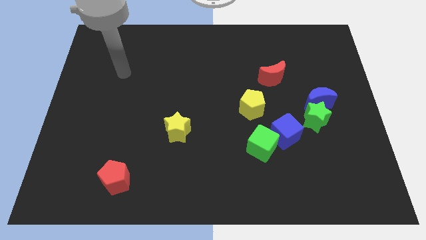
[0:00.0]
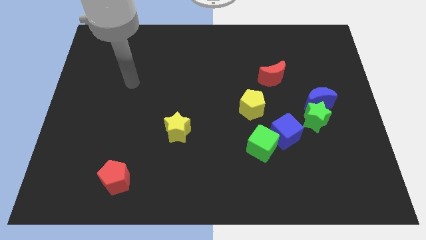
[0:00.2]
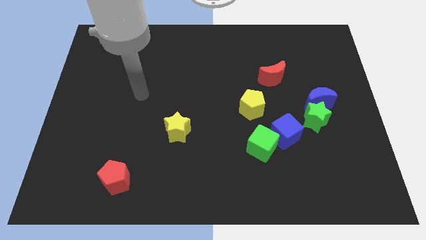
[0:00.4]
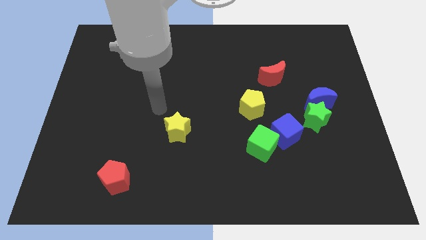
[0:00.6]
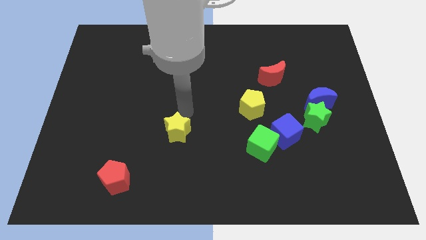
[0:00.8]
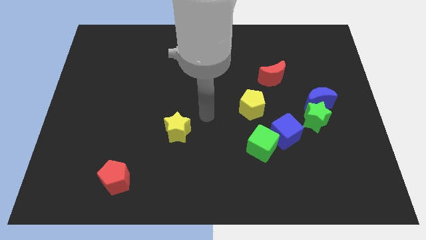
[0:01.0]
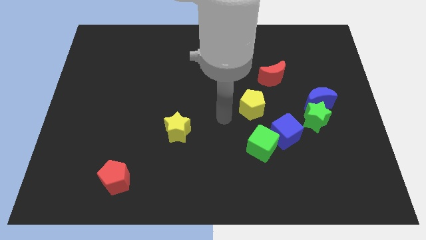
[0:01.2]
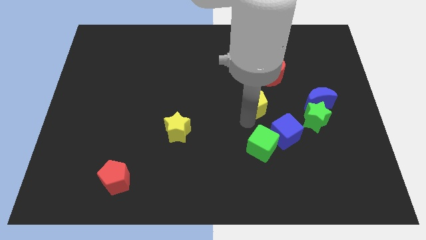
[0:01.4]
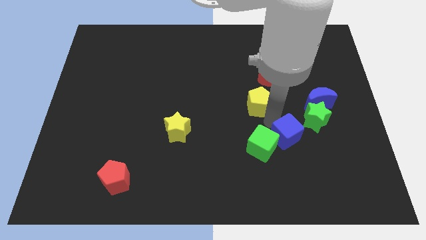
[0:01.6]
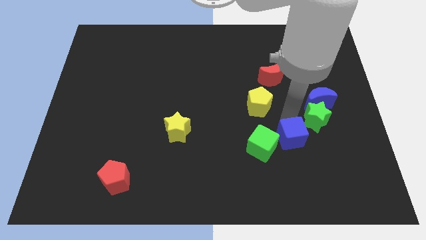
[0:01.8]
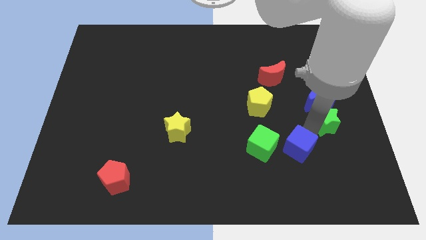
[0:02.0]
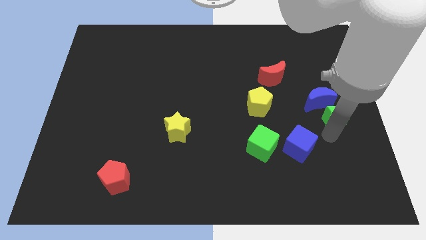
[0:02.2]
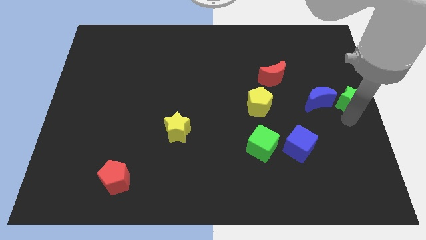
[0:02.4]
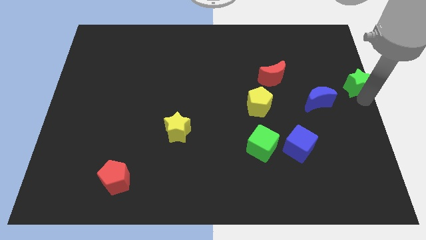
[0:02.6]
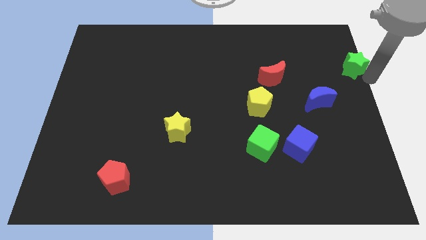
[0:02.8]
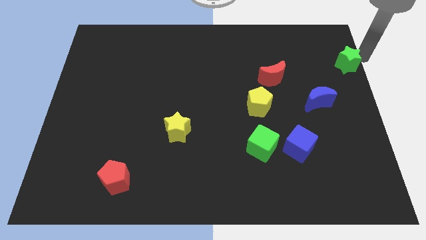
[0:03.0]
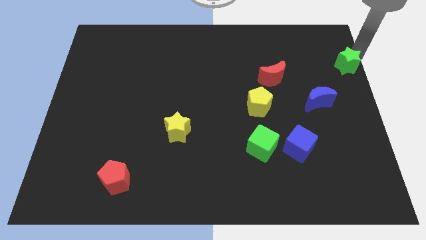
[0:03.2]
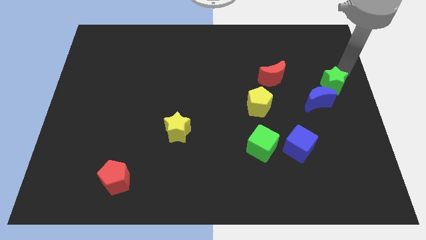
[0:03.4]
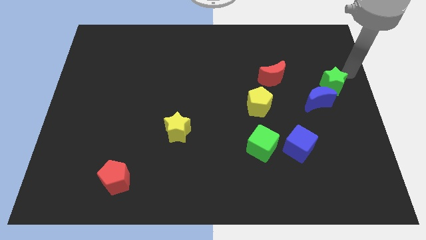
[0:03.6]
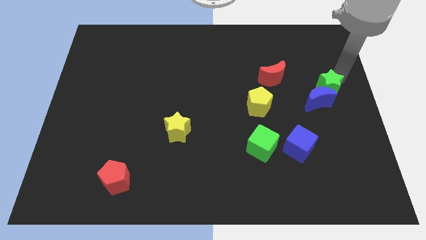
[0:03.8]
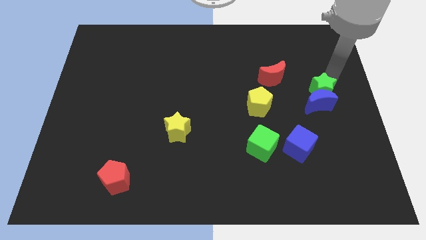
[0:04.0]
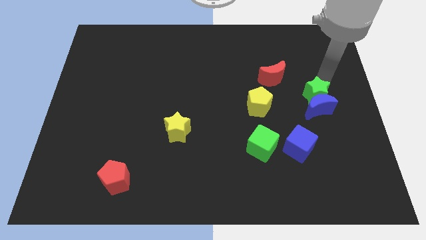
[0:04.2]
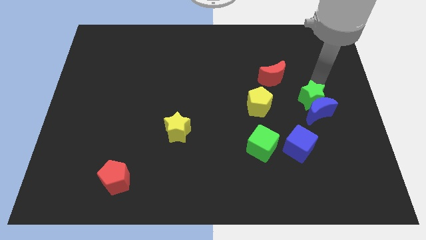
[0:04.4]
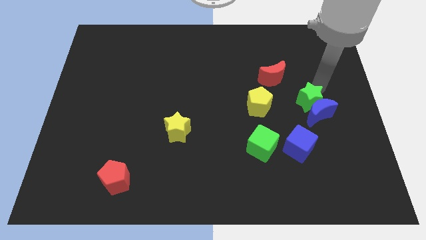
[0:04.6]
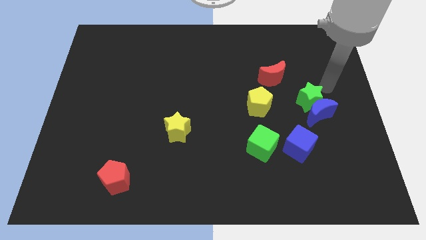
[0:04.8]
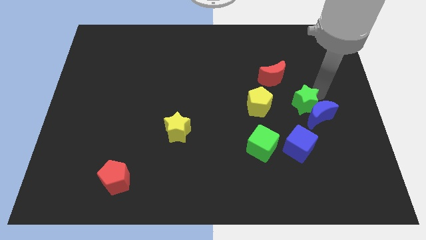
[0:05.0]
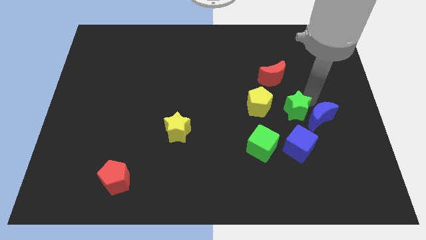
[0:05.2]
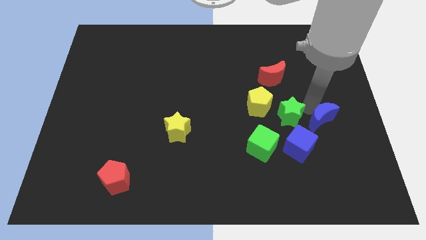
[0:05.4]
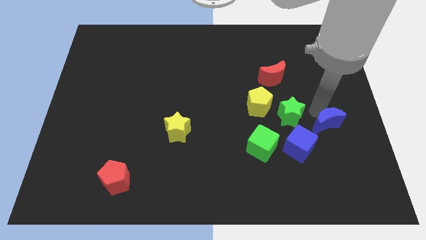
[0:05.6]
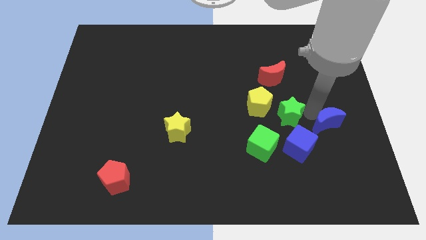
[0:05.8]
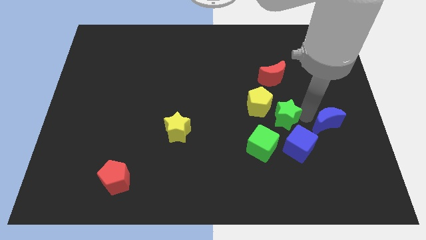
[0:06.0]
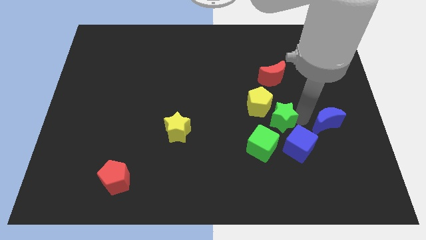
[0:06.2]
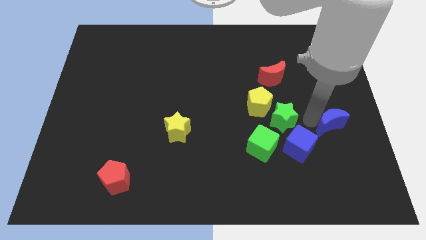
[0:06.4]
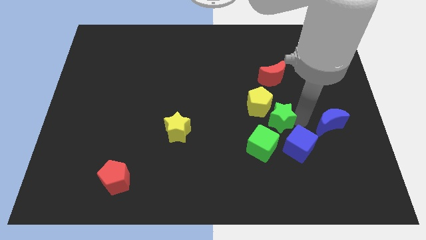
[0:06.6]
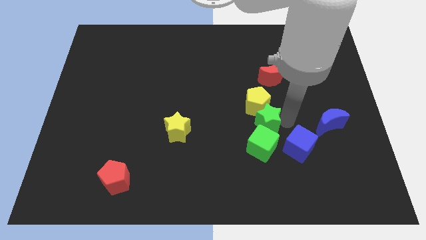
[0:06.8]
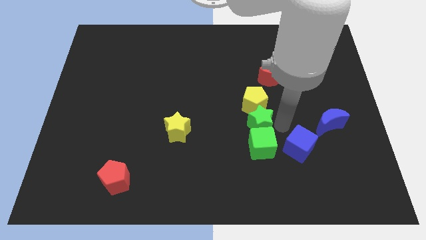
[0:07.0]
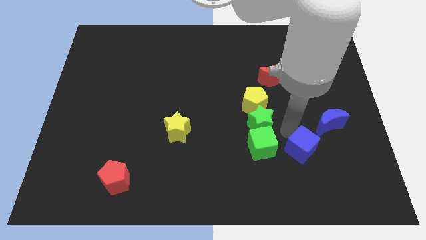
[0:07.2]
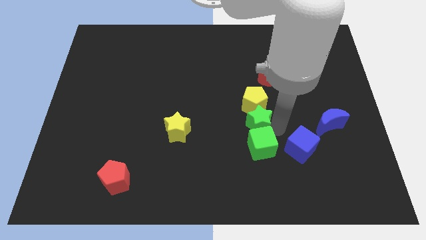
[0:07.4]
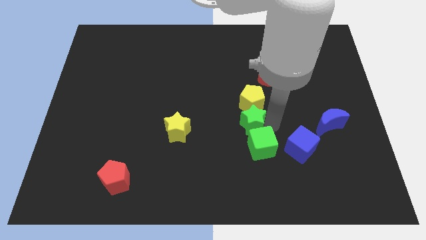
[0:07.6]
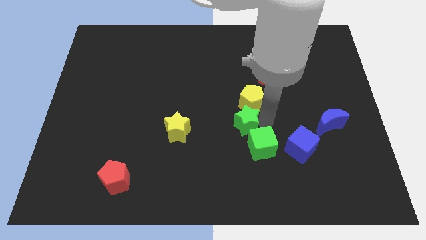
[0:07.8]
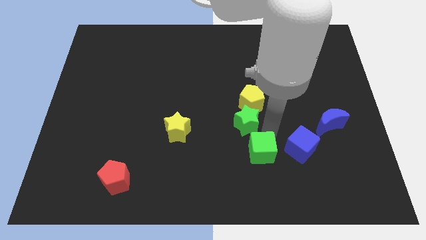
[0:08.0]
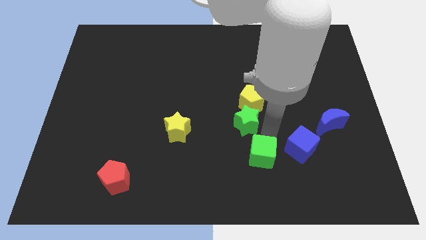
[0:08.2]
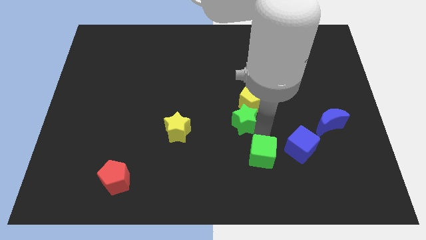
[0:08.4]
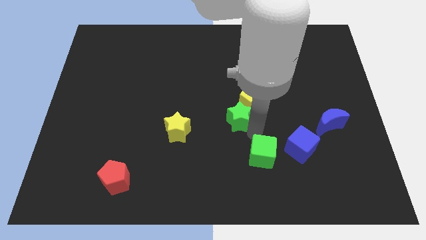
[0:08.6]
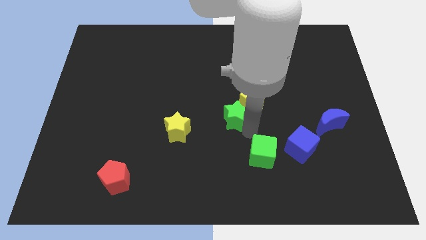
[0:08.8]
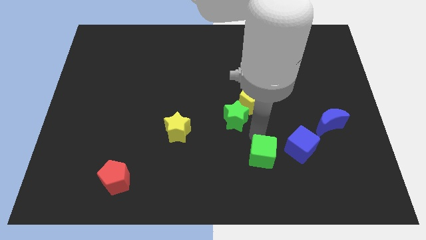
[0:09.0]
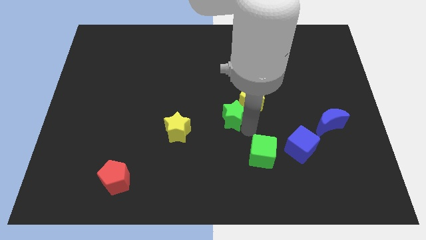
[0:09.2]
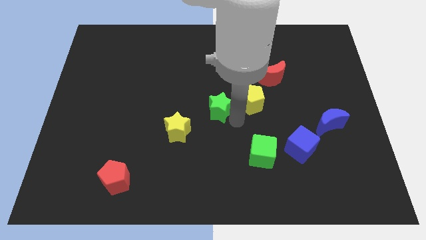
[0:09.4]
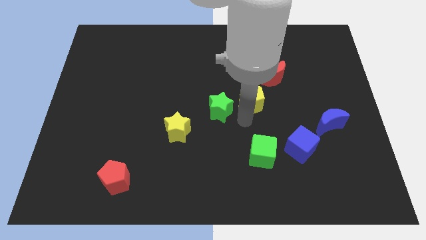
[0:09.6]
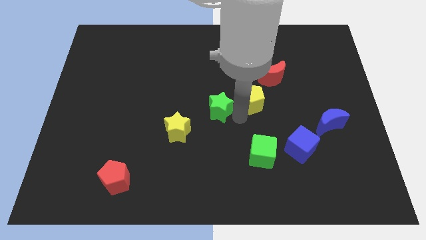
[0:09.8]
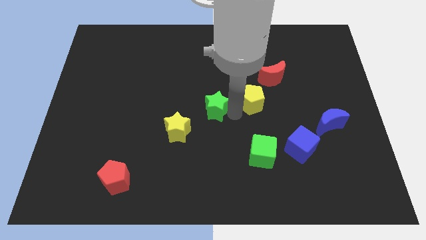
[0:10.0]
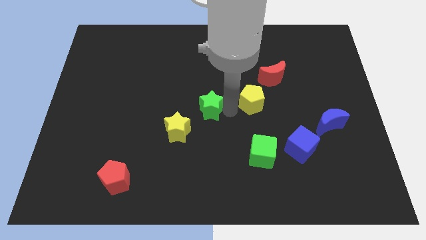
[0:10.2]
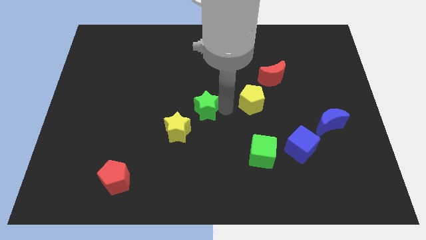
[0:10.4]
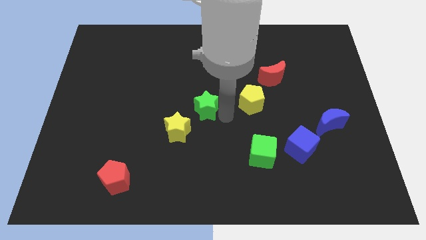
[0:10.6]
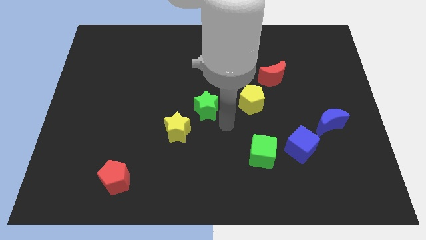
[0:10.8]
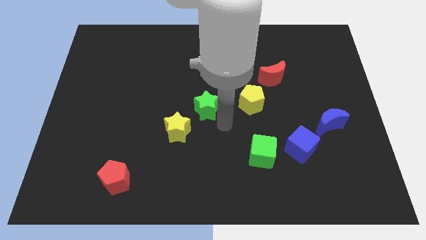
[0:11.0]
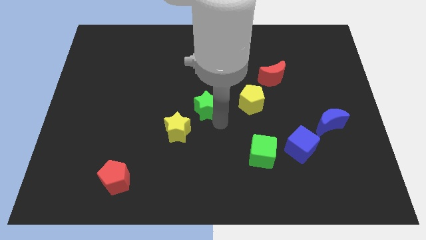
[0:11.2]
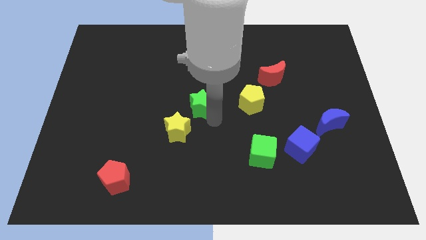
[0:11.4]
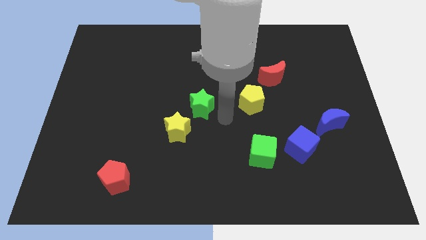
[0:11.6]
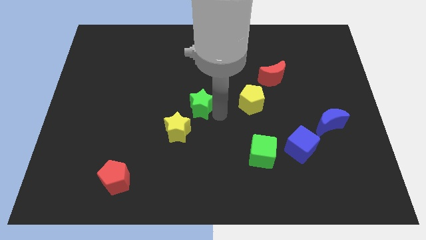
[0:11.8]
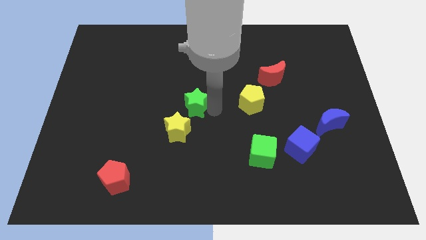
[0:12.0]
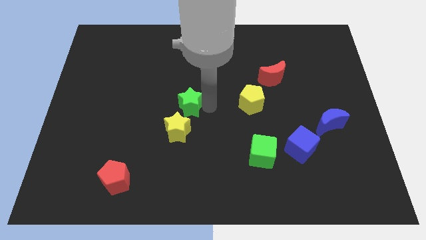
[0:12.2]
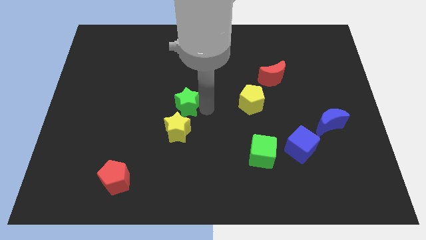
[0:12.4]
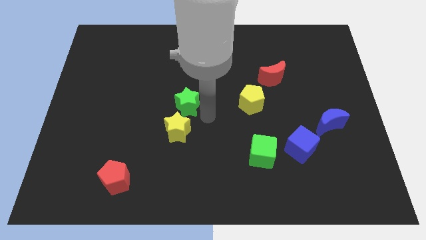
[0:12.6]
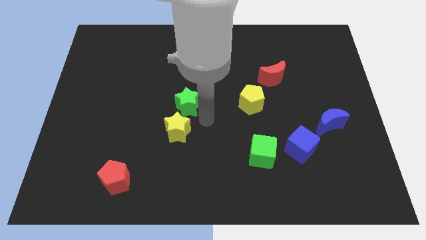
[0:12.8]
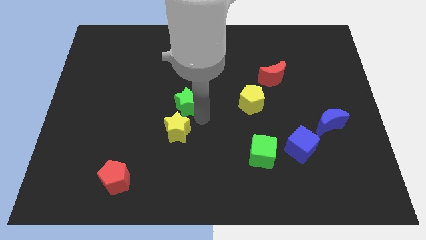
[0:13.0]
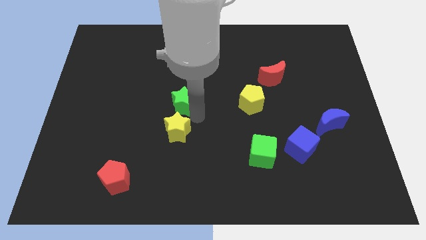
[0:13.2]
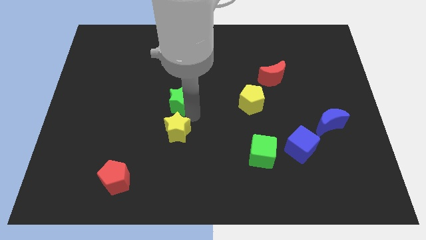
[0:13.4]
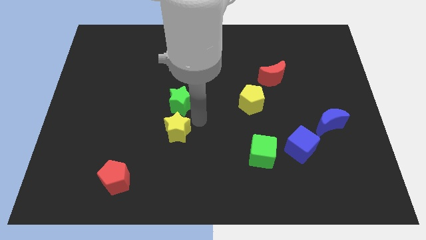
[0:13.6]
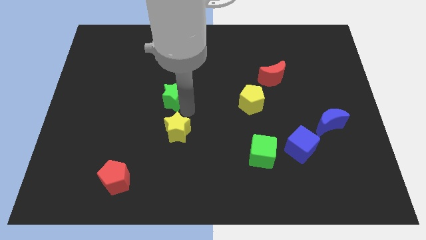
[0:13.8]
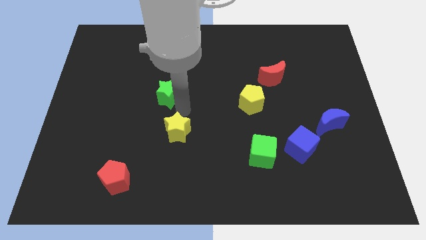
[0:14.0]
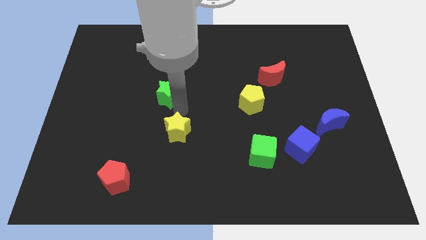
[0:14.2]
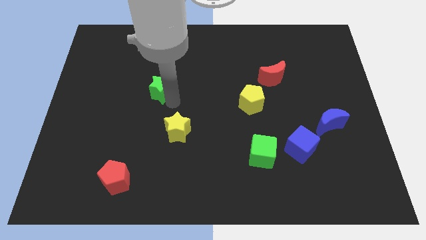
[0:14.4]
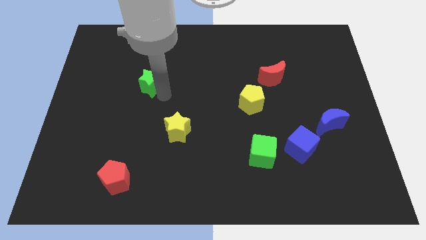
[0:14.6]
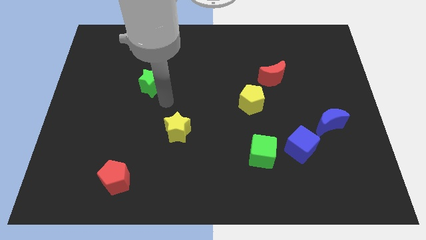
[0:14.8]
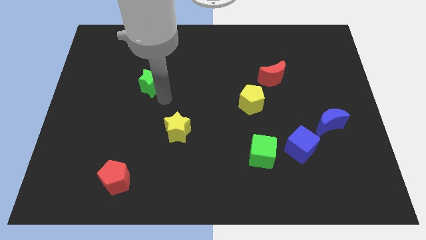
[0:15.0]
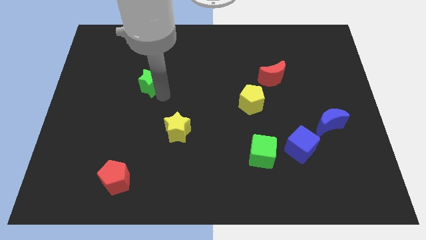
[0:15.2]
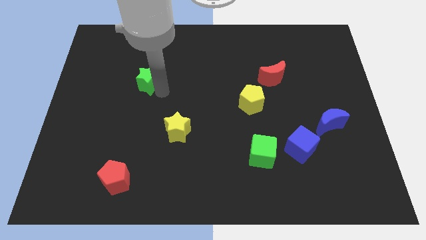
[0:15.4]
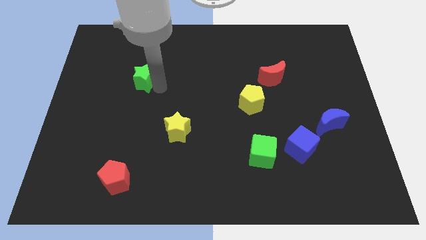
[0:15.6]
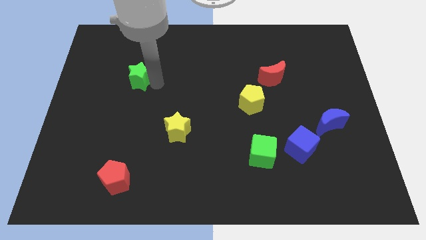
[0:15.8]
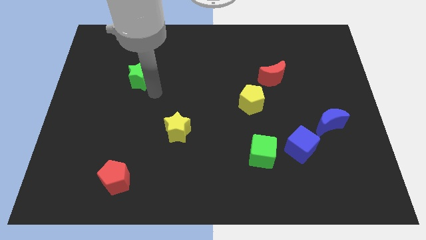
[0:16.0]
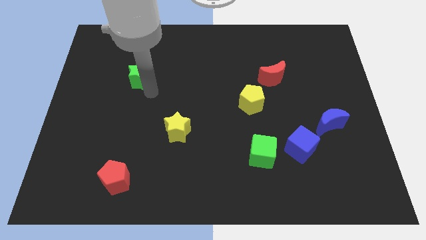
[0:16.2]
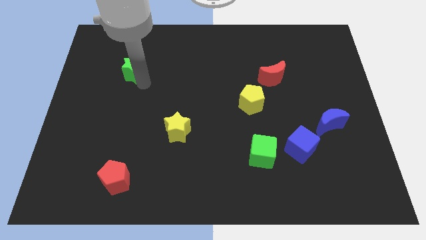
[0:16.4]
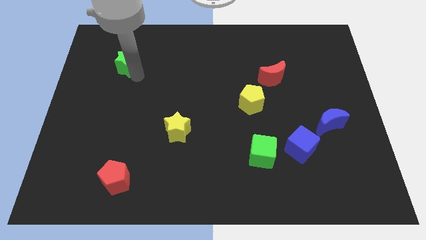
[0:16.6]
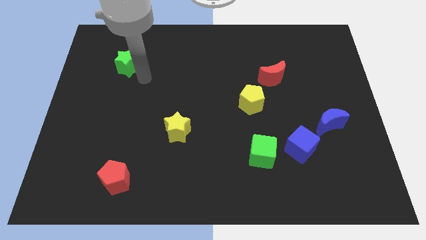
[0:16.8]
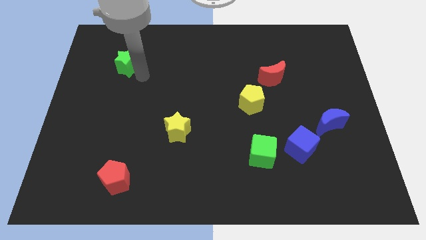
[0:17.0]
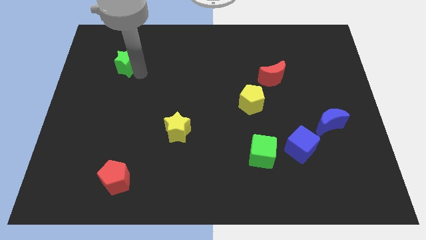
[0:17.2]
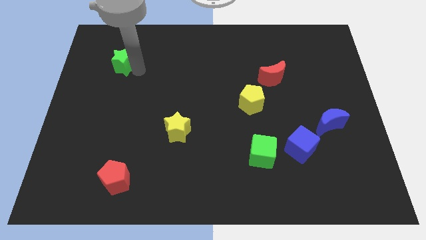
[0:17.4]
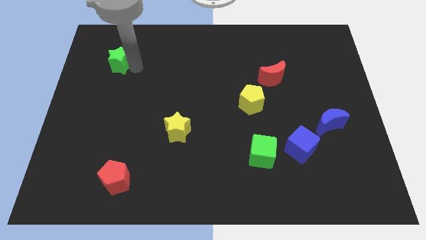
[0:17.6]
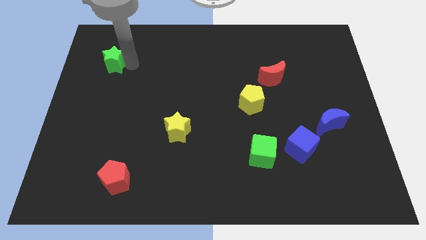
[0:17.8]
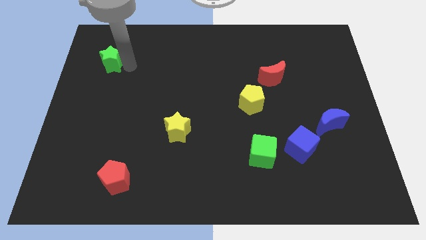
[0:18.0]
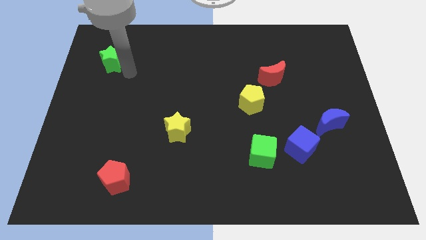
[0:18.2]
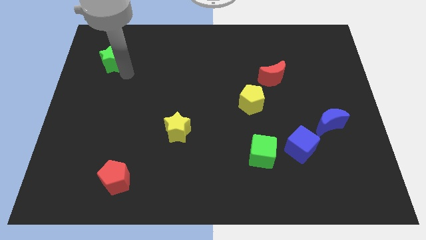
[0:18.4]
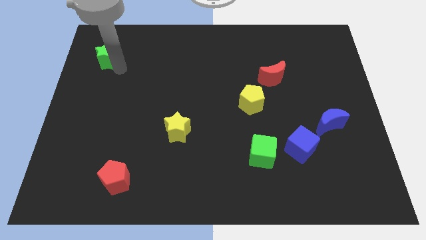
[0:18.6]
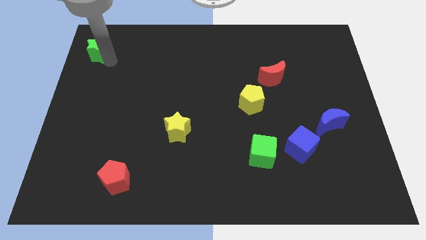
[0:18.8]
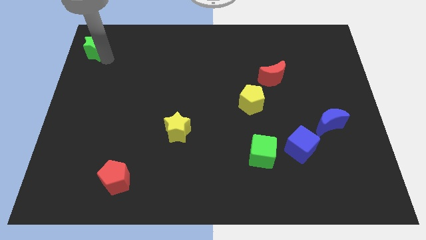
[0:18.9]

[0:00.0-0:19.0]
put the green star to the top left corner
